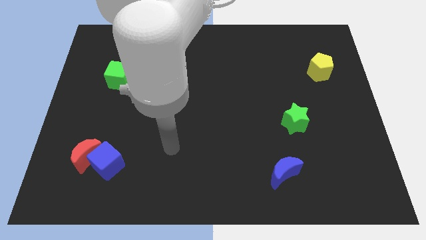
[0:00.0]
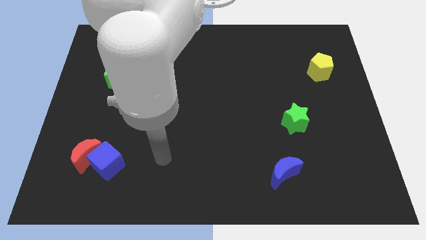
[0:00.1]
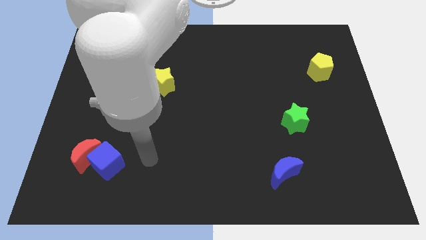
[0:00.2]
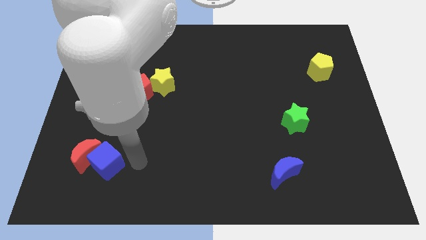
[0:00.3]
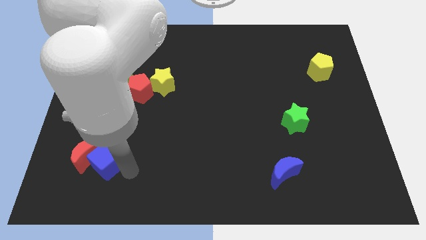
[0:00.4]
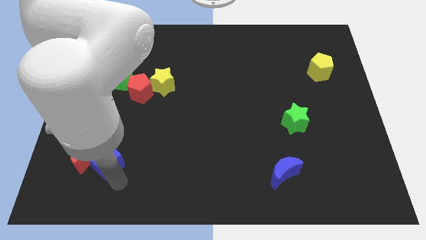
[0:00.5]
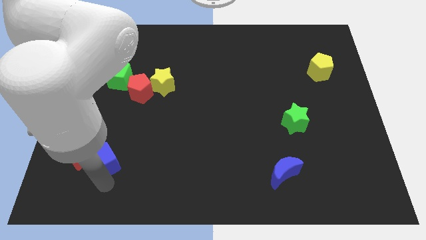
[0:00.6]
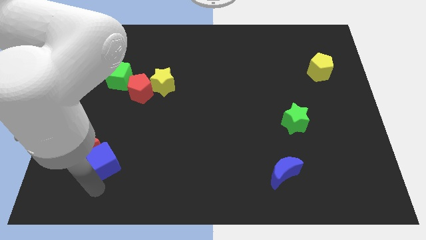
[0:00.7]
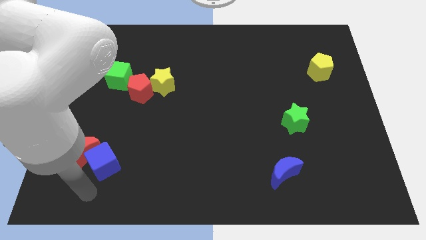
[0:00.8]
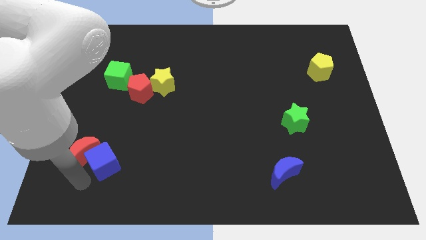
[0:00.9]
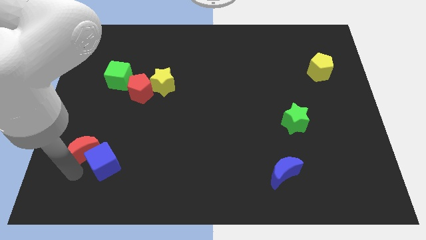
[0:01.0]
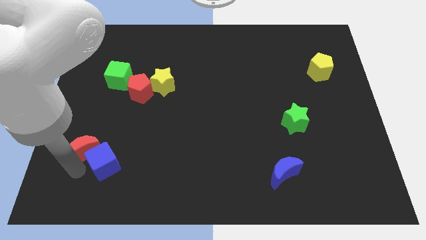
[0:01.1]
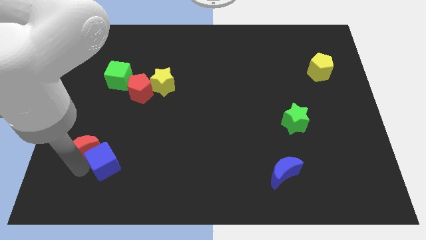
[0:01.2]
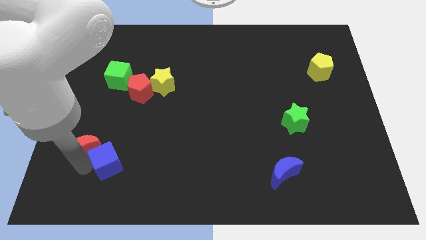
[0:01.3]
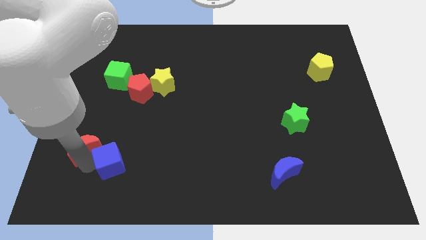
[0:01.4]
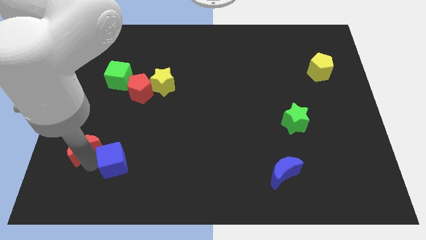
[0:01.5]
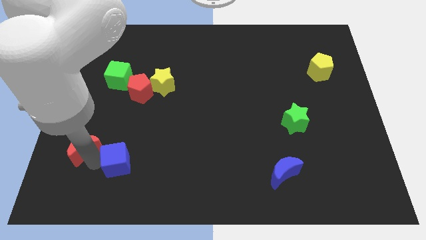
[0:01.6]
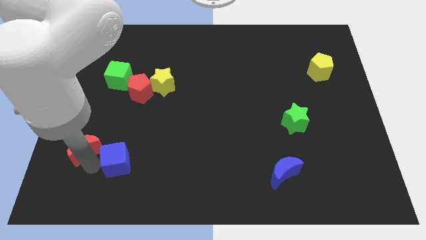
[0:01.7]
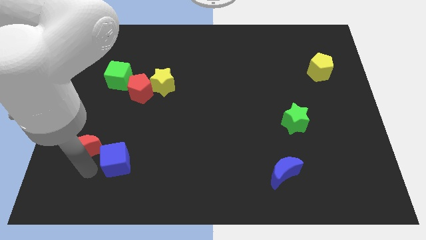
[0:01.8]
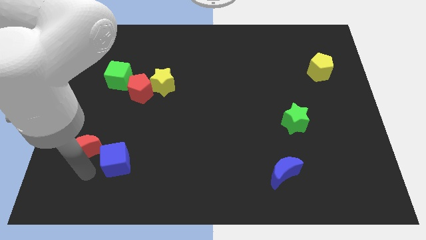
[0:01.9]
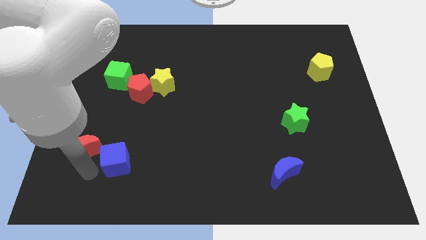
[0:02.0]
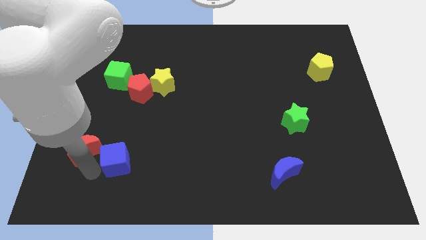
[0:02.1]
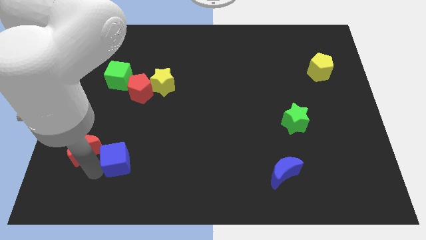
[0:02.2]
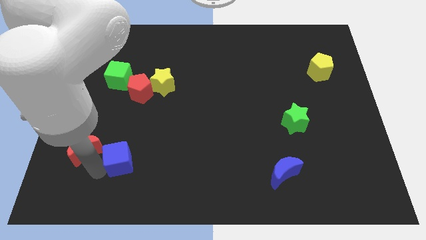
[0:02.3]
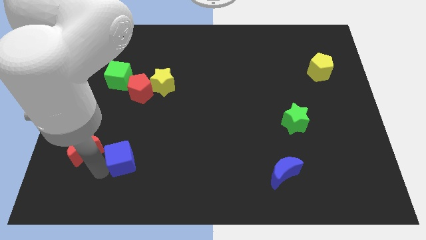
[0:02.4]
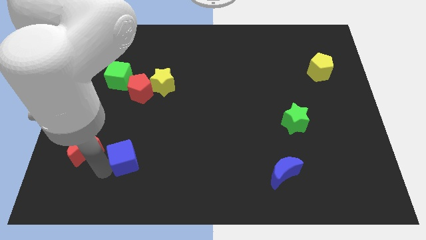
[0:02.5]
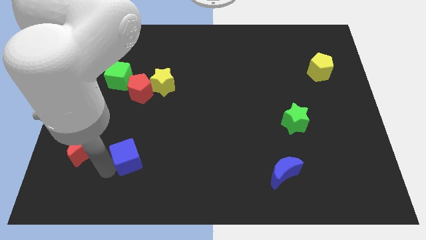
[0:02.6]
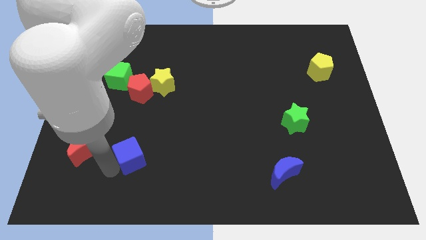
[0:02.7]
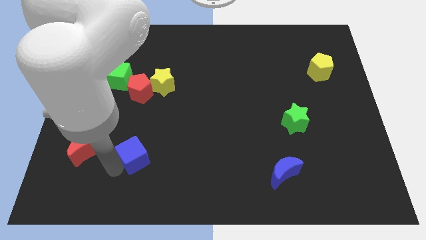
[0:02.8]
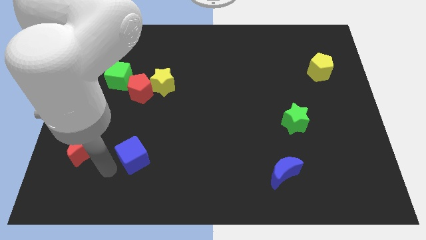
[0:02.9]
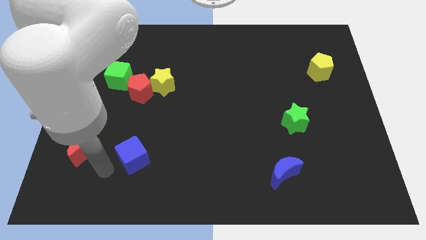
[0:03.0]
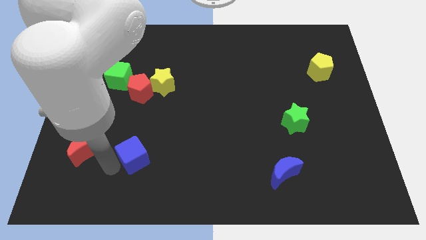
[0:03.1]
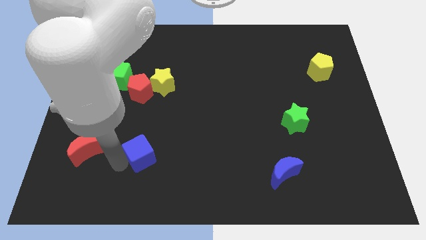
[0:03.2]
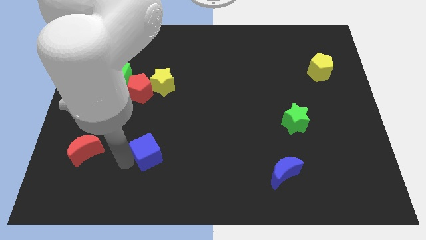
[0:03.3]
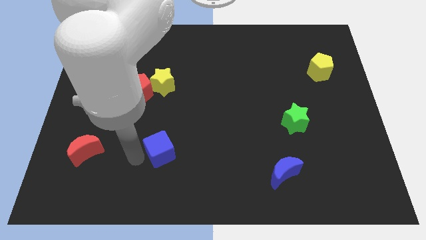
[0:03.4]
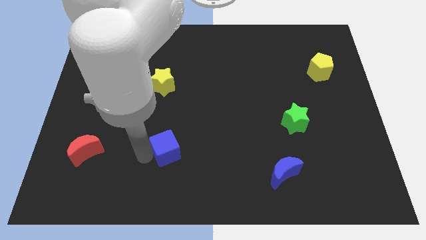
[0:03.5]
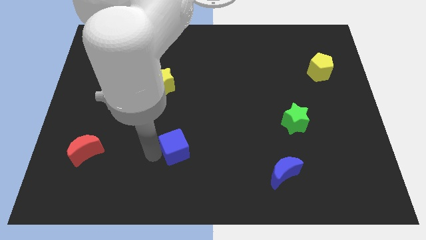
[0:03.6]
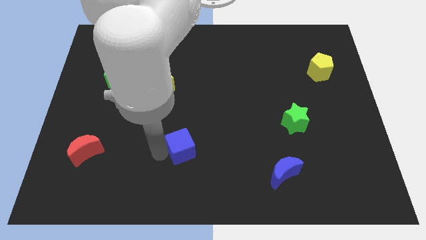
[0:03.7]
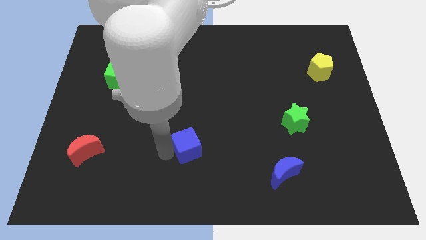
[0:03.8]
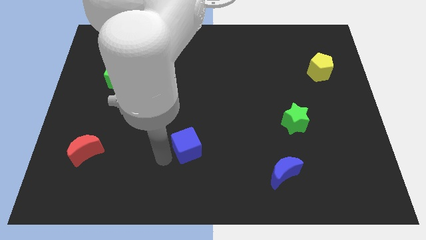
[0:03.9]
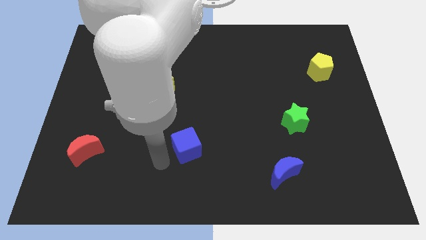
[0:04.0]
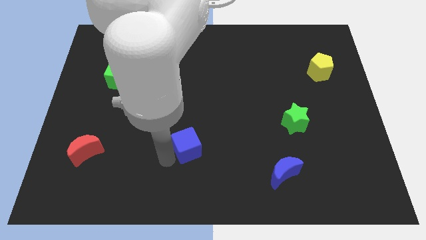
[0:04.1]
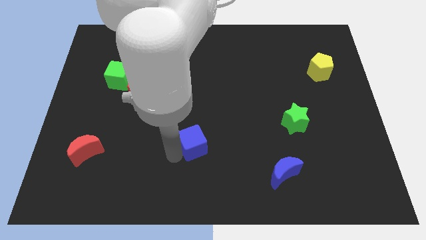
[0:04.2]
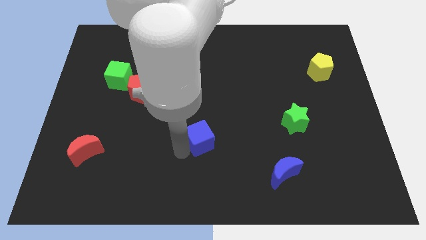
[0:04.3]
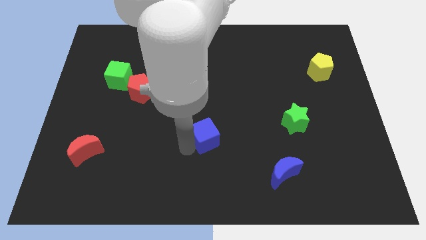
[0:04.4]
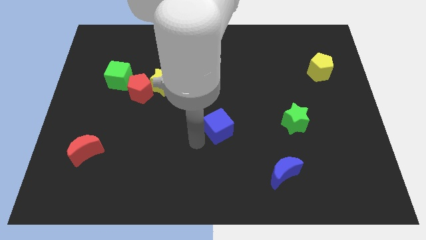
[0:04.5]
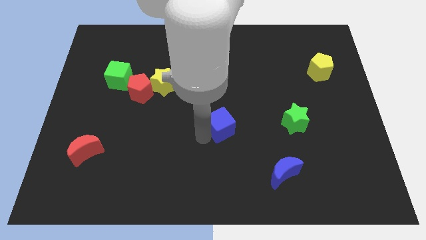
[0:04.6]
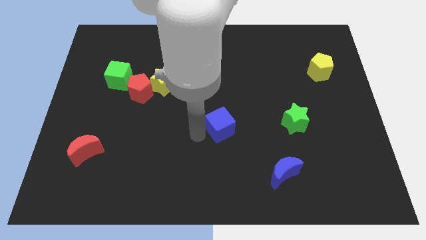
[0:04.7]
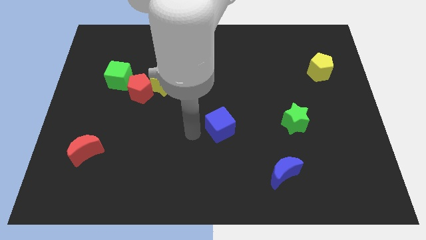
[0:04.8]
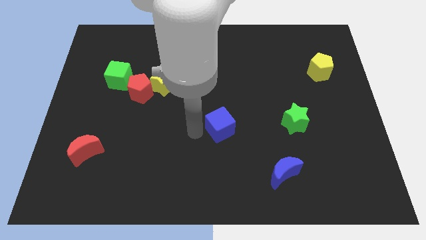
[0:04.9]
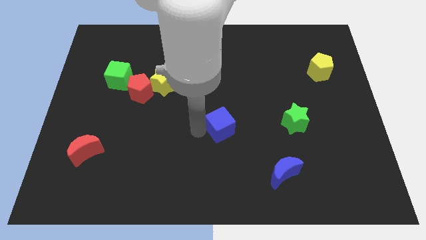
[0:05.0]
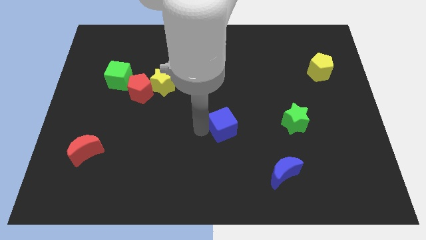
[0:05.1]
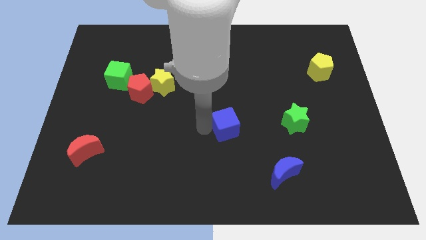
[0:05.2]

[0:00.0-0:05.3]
slide the blue cube left of the green star

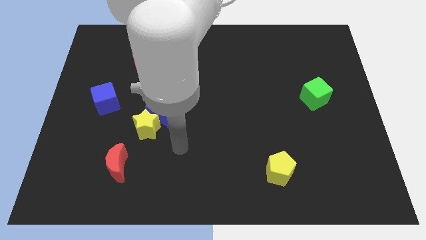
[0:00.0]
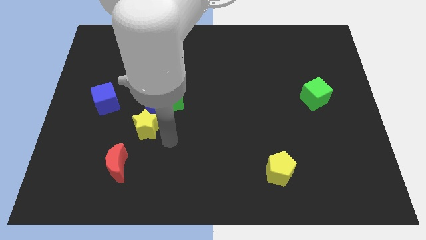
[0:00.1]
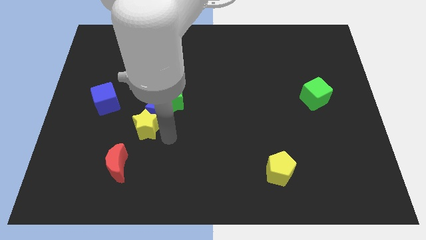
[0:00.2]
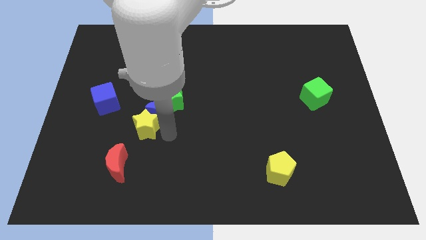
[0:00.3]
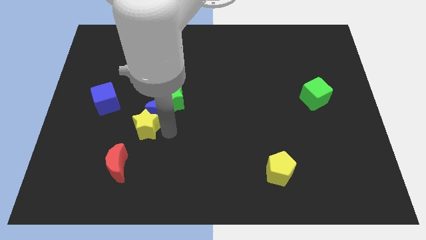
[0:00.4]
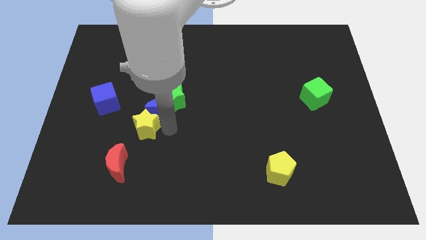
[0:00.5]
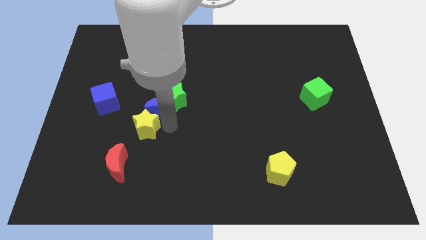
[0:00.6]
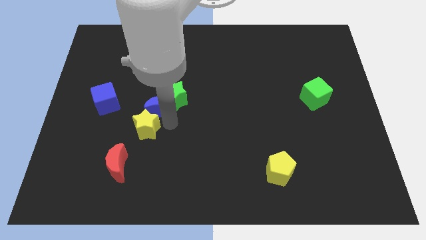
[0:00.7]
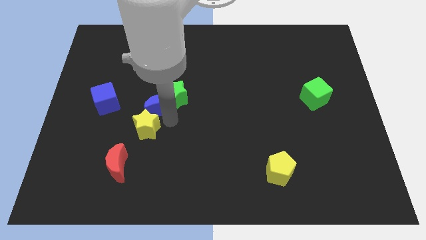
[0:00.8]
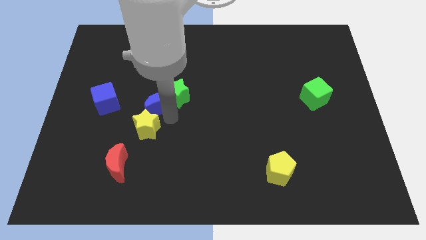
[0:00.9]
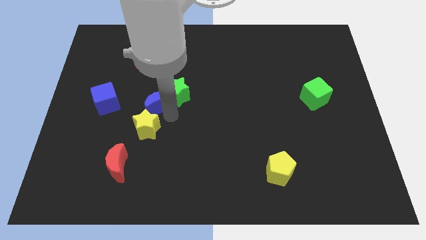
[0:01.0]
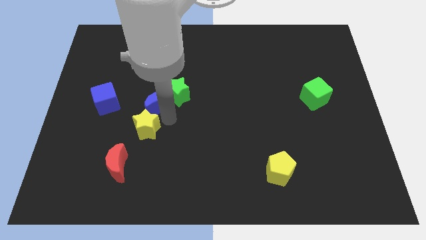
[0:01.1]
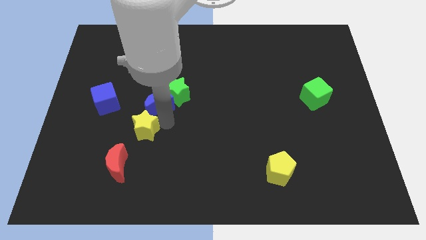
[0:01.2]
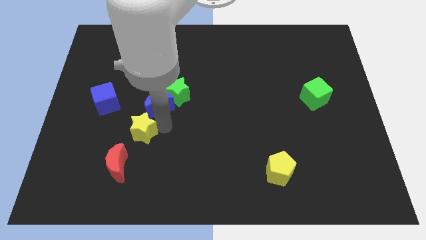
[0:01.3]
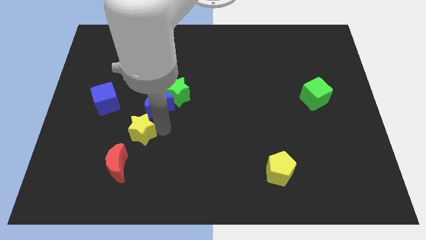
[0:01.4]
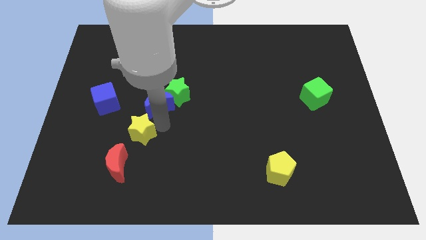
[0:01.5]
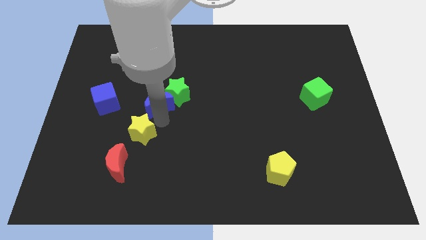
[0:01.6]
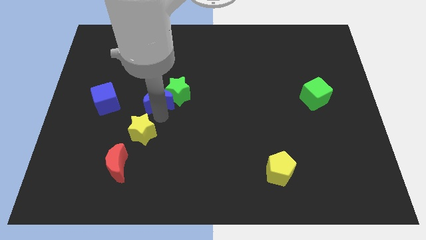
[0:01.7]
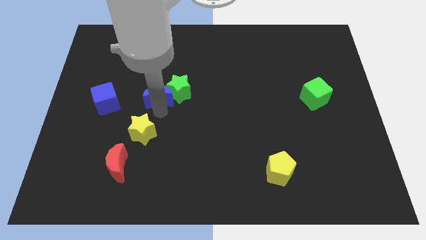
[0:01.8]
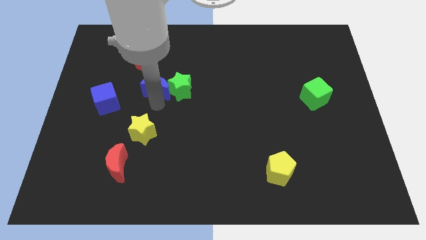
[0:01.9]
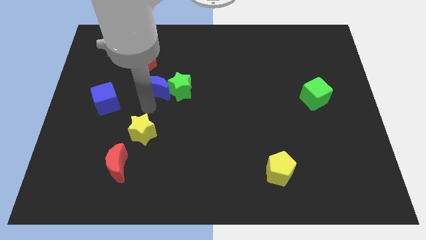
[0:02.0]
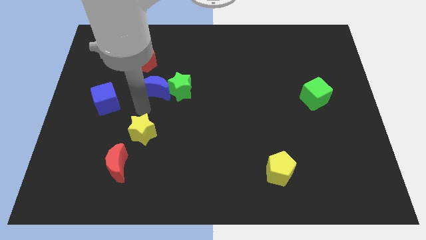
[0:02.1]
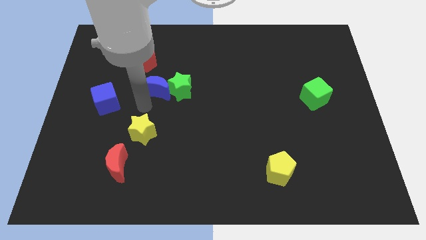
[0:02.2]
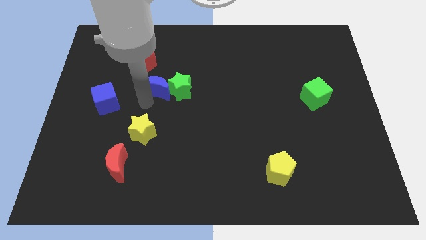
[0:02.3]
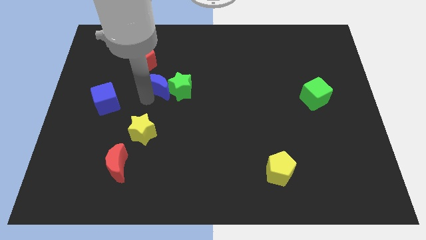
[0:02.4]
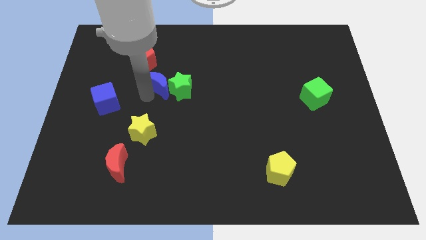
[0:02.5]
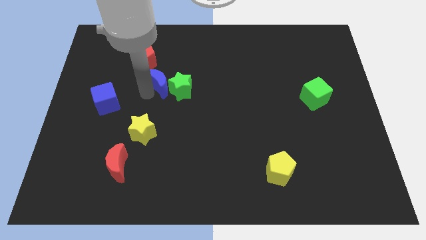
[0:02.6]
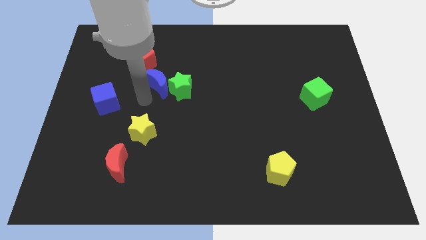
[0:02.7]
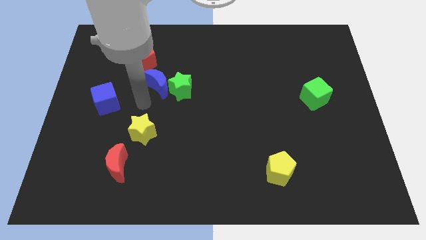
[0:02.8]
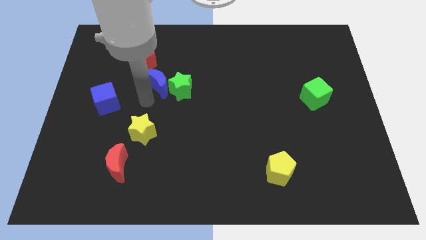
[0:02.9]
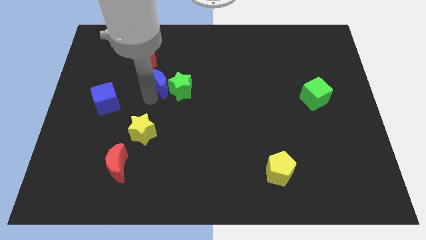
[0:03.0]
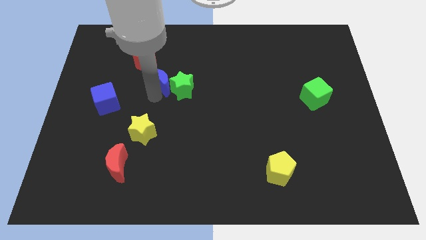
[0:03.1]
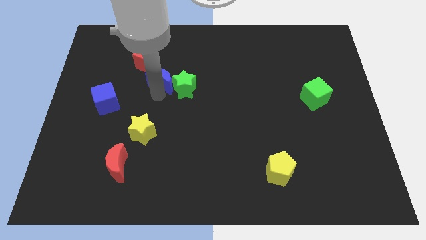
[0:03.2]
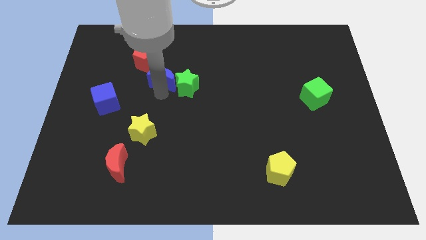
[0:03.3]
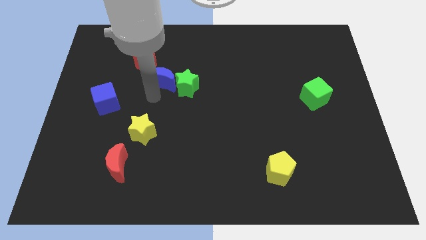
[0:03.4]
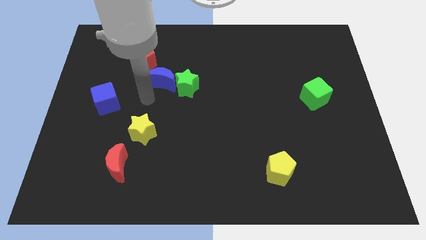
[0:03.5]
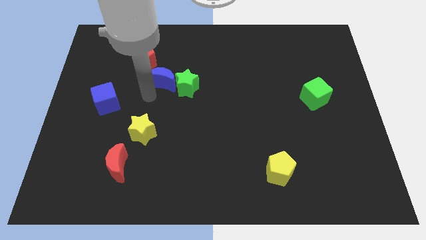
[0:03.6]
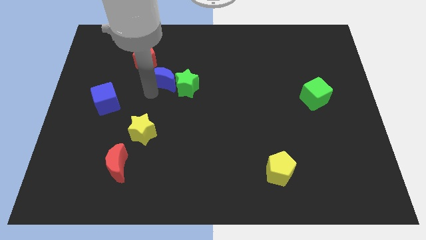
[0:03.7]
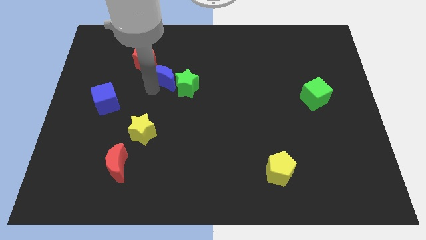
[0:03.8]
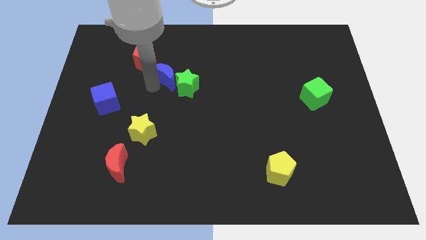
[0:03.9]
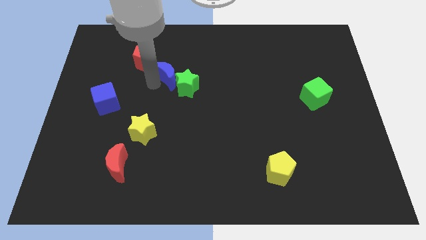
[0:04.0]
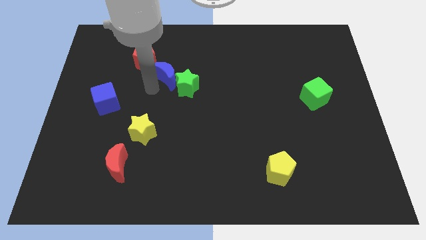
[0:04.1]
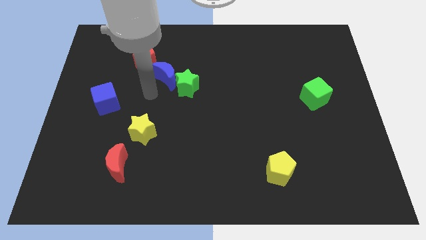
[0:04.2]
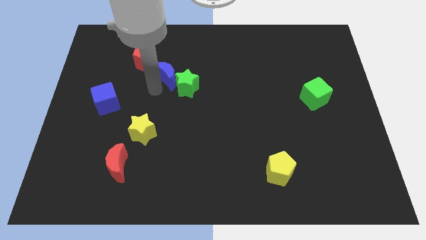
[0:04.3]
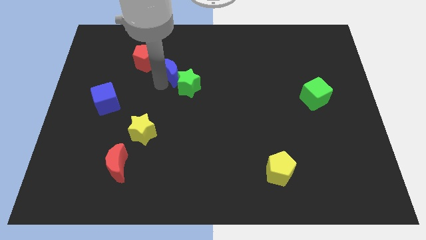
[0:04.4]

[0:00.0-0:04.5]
slide the blue moon to the top of the green star
